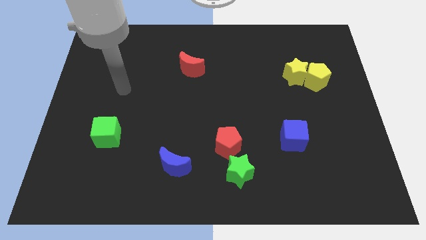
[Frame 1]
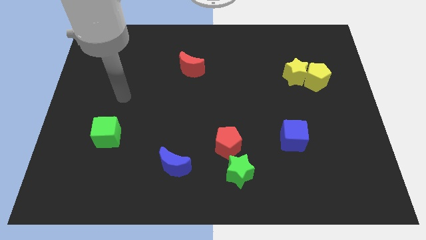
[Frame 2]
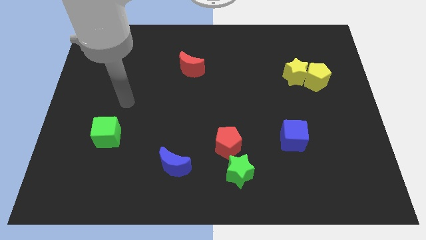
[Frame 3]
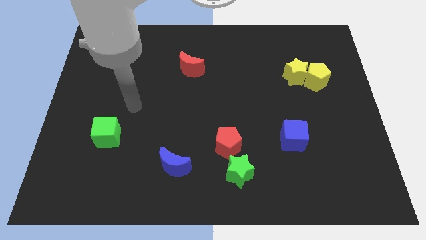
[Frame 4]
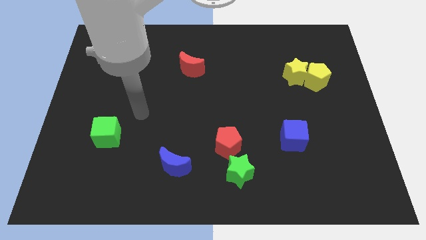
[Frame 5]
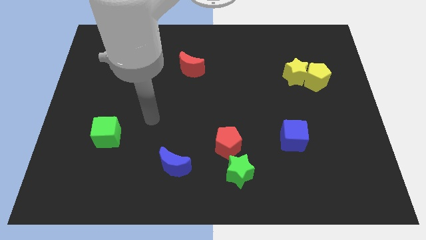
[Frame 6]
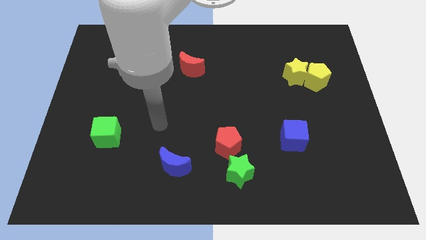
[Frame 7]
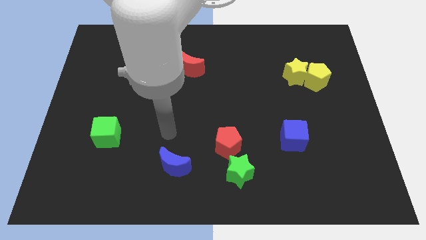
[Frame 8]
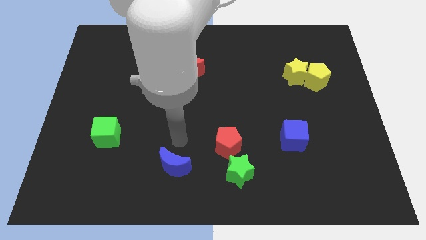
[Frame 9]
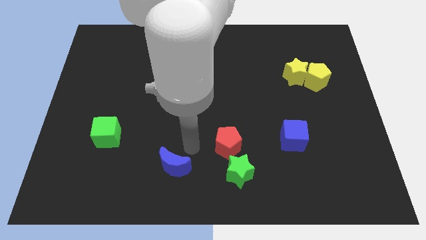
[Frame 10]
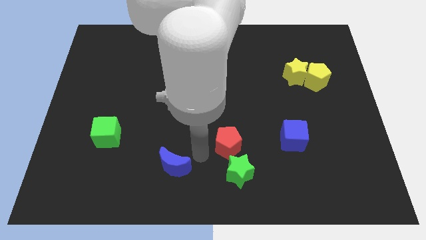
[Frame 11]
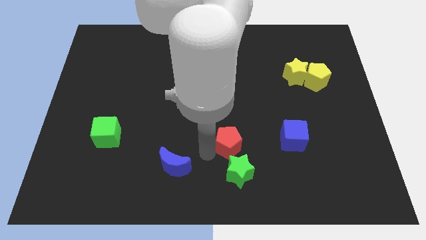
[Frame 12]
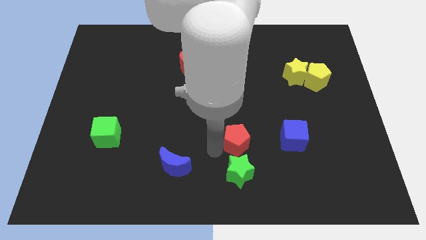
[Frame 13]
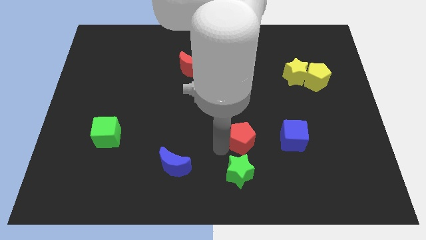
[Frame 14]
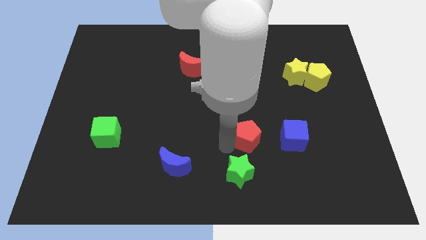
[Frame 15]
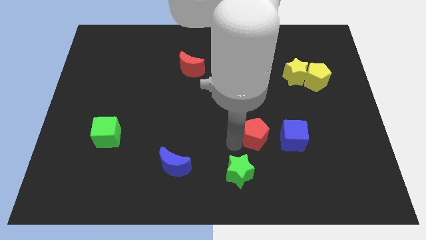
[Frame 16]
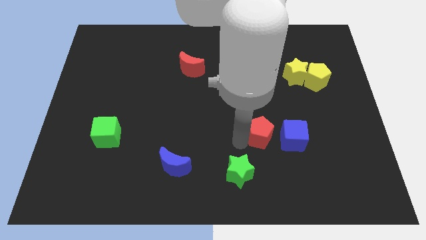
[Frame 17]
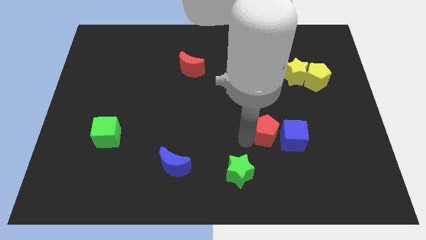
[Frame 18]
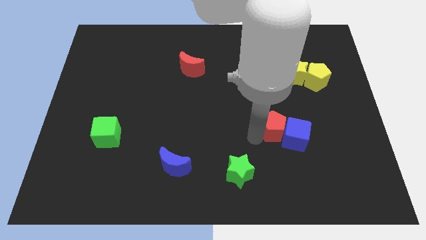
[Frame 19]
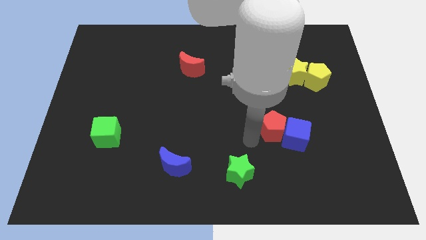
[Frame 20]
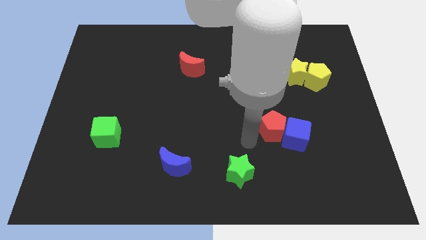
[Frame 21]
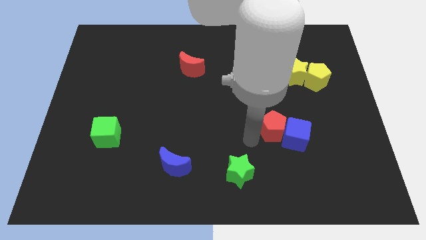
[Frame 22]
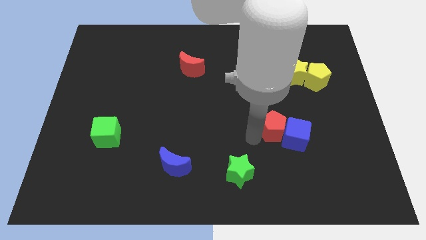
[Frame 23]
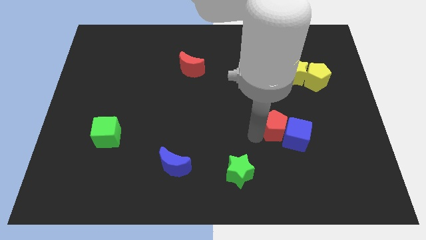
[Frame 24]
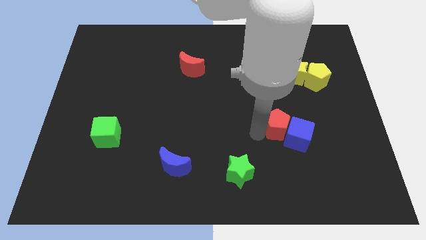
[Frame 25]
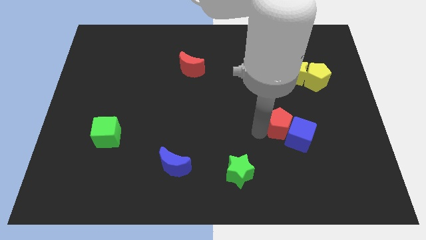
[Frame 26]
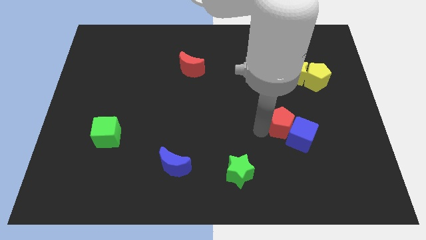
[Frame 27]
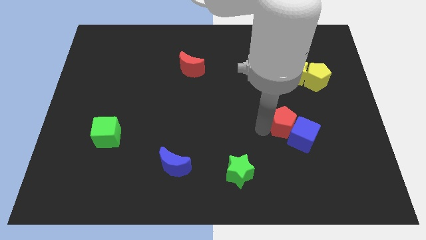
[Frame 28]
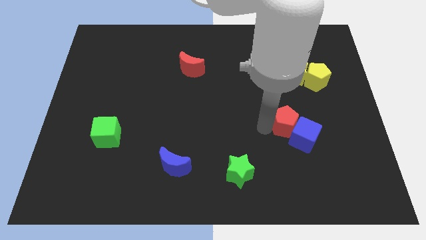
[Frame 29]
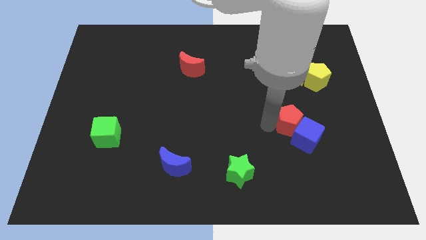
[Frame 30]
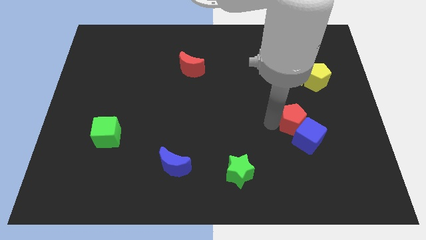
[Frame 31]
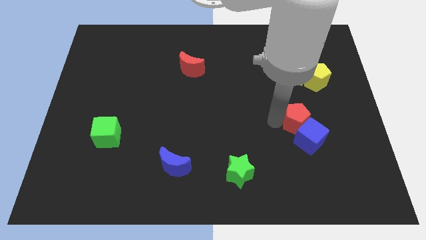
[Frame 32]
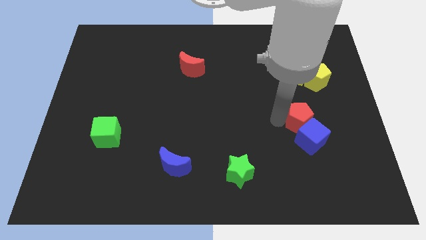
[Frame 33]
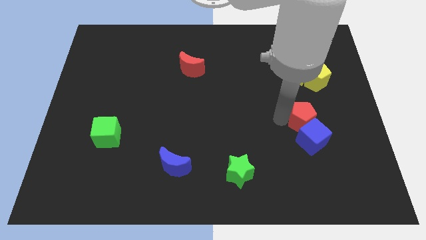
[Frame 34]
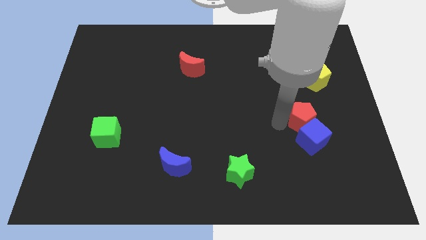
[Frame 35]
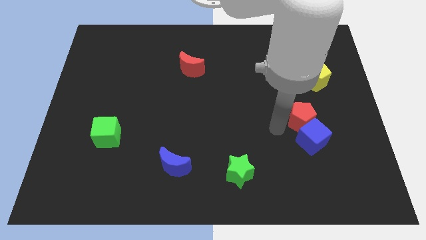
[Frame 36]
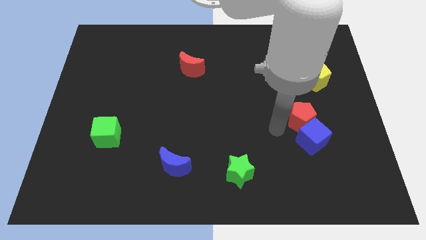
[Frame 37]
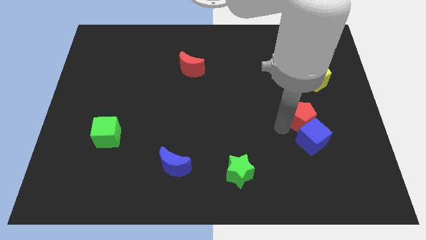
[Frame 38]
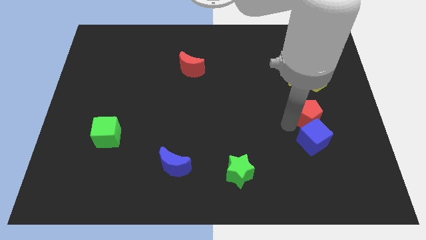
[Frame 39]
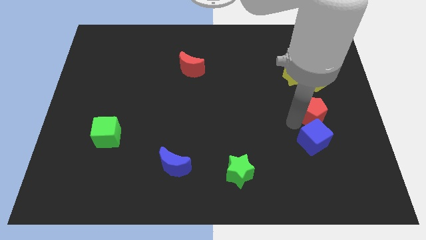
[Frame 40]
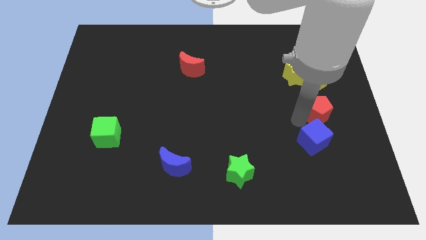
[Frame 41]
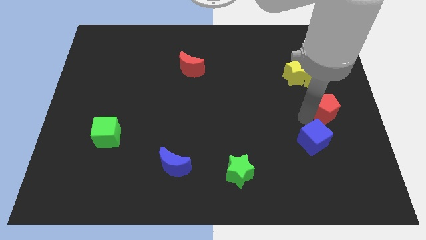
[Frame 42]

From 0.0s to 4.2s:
push the red pentagon to the center right

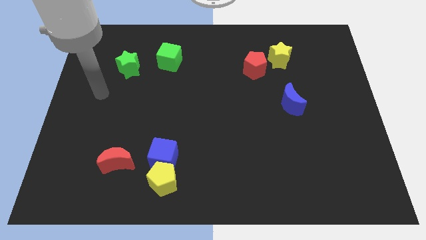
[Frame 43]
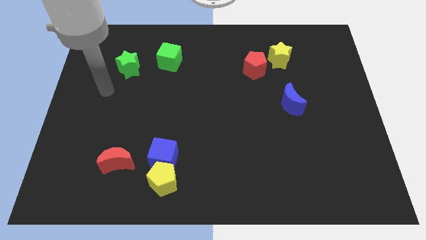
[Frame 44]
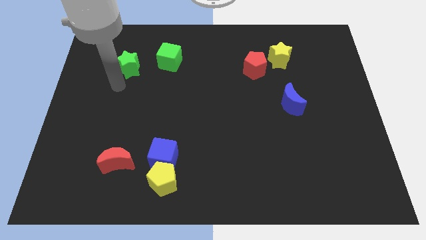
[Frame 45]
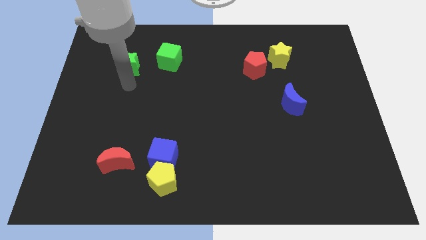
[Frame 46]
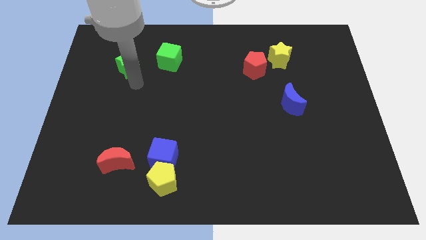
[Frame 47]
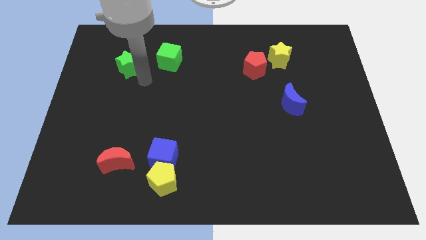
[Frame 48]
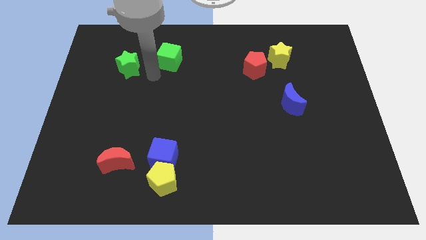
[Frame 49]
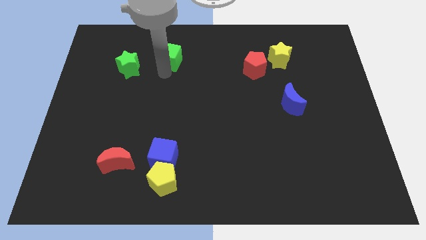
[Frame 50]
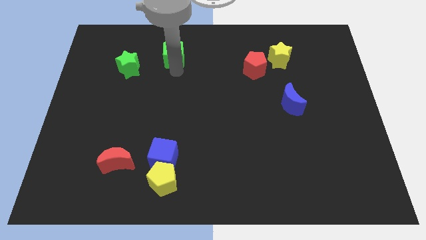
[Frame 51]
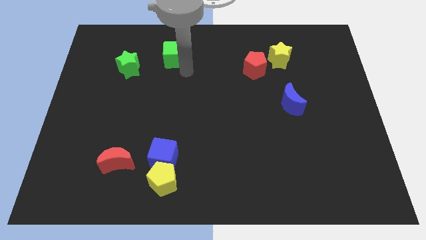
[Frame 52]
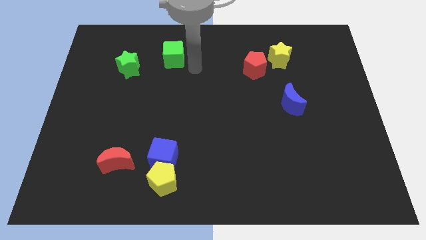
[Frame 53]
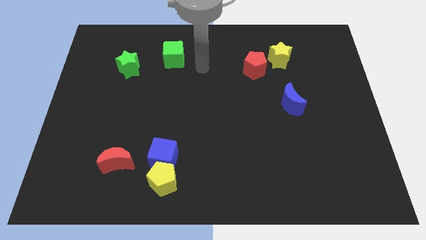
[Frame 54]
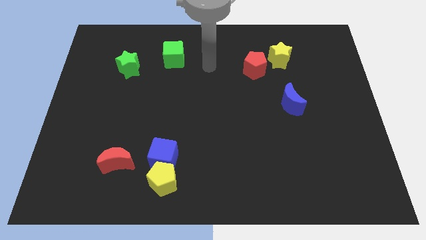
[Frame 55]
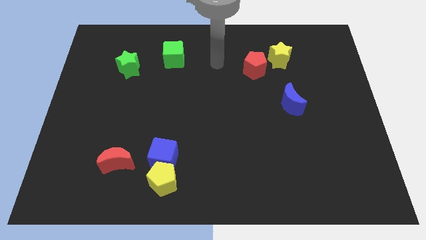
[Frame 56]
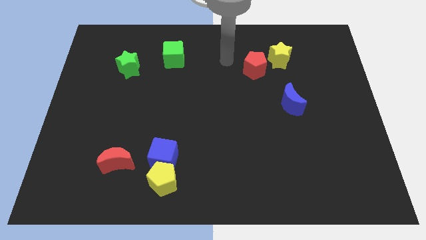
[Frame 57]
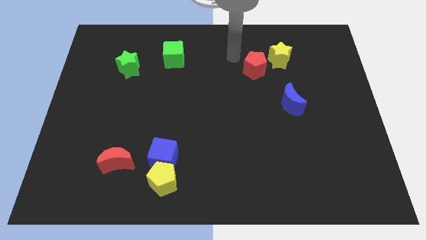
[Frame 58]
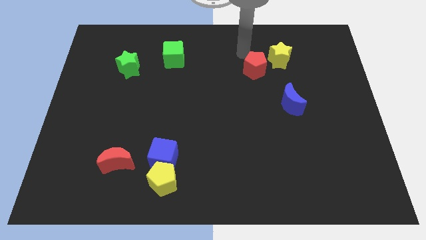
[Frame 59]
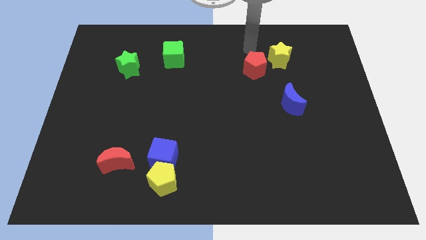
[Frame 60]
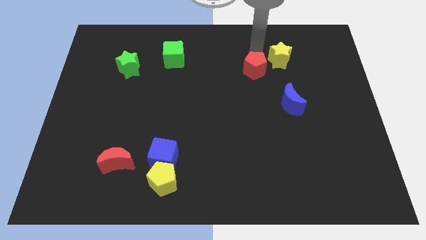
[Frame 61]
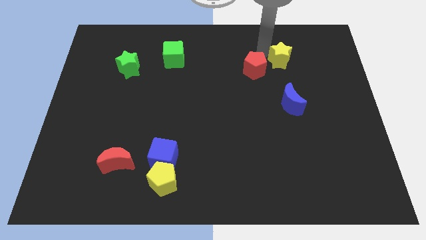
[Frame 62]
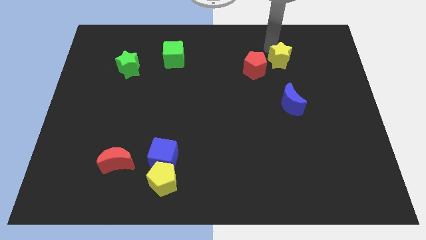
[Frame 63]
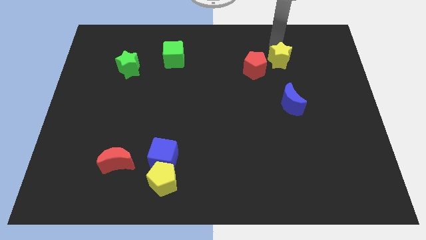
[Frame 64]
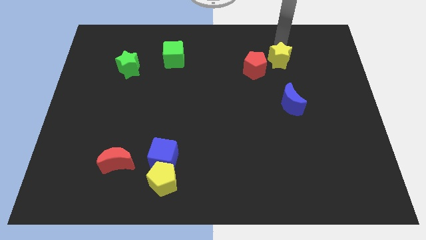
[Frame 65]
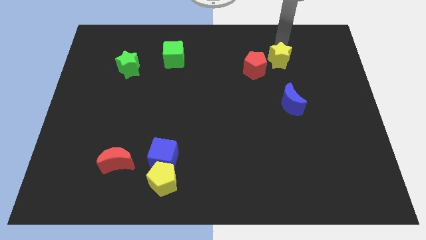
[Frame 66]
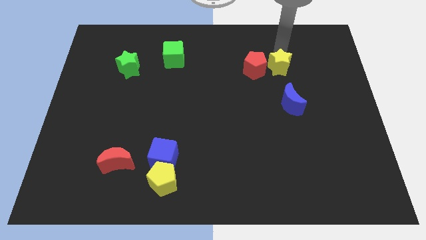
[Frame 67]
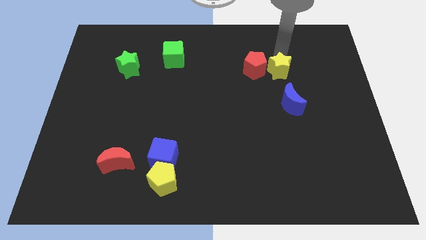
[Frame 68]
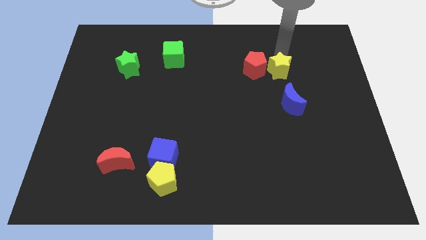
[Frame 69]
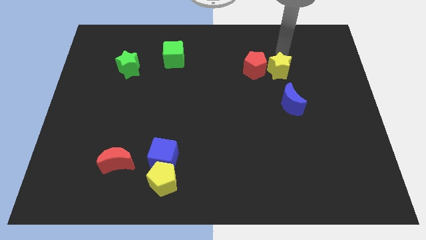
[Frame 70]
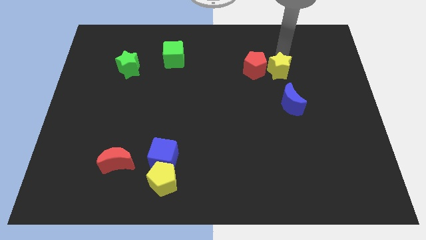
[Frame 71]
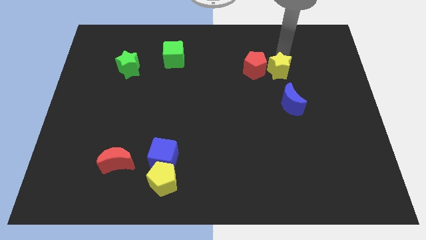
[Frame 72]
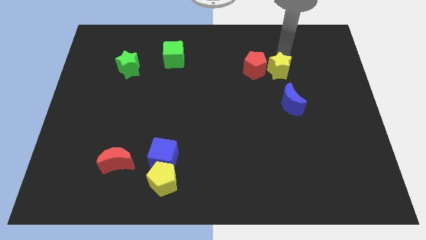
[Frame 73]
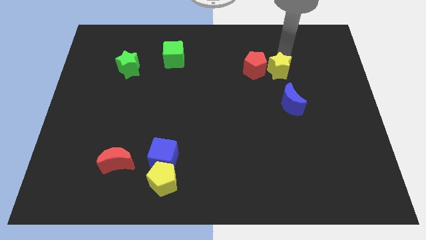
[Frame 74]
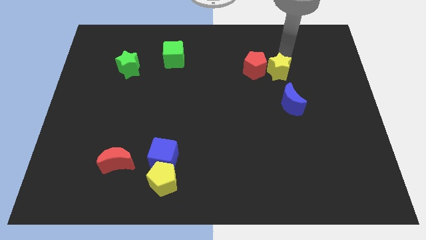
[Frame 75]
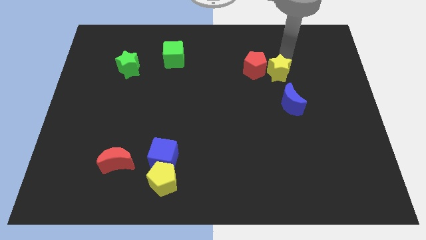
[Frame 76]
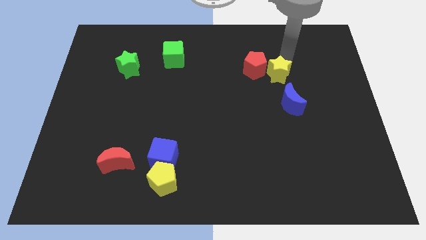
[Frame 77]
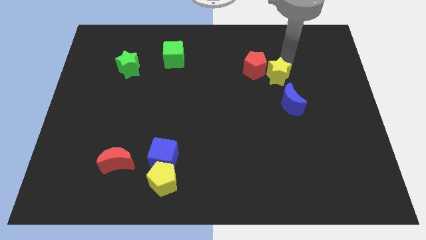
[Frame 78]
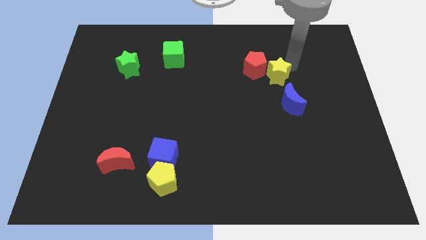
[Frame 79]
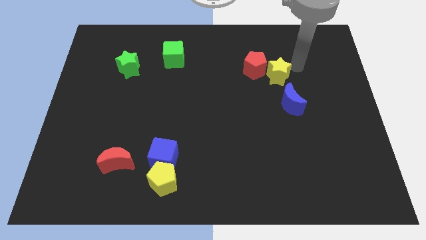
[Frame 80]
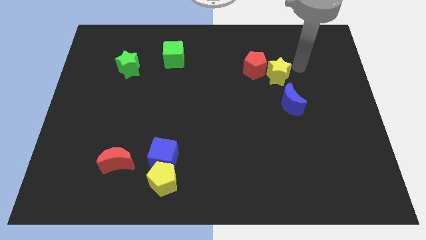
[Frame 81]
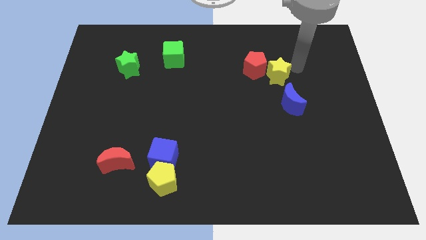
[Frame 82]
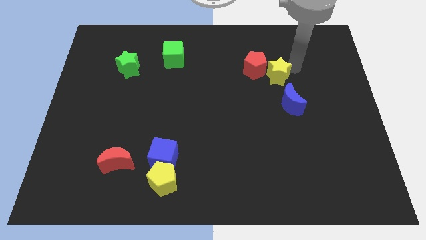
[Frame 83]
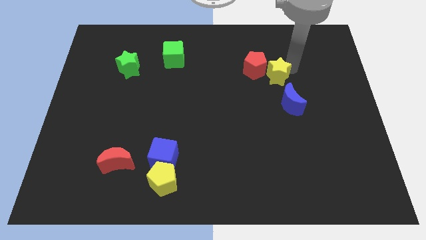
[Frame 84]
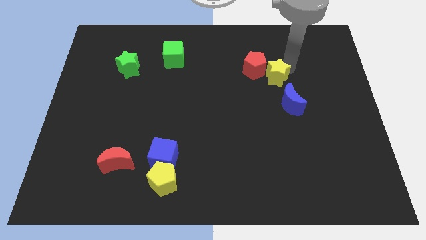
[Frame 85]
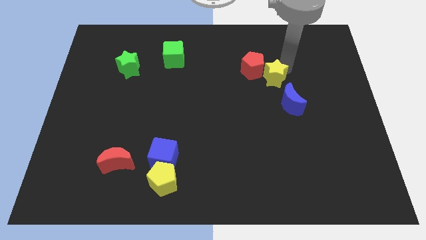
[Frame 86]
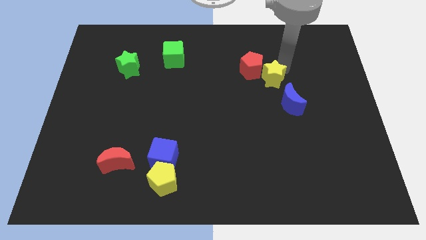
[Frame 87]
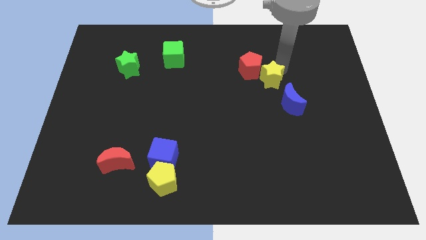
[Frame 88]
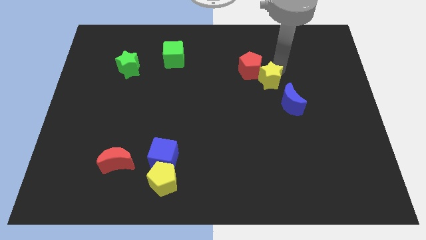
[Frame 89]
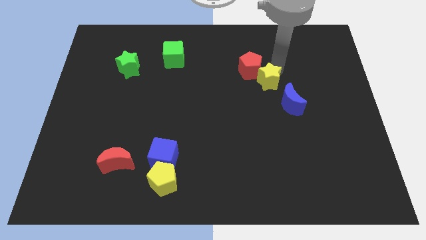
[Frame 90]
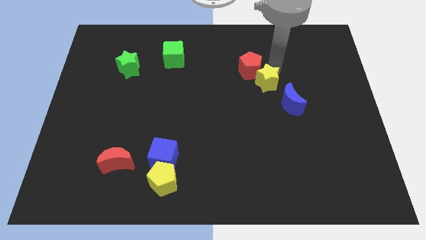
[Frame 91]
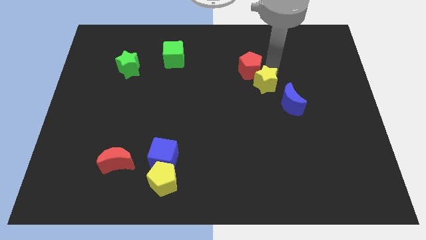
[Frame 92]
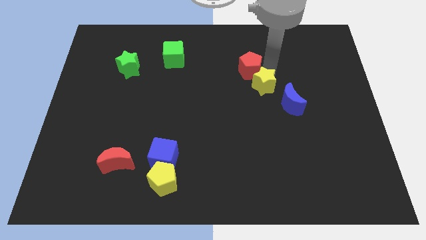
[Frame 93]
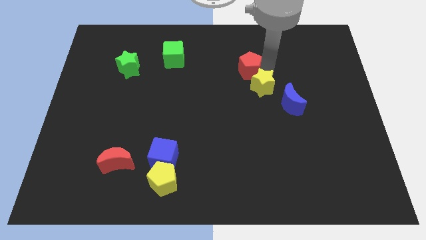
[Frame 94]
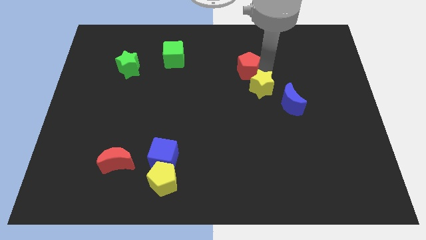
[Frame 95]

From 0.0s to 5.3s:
push the yellow star to the center of the board
